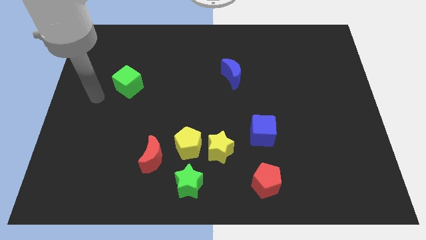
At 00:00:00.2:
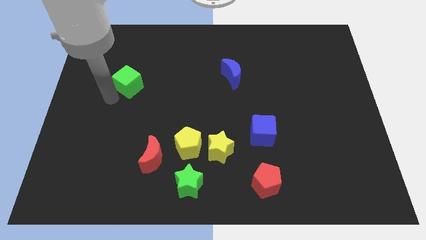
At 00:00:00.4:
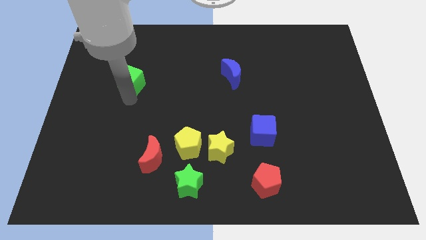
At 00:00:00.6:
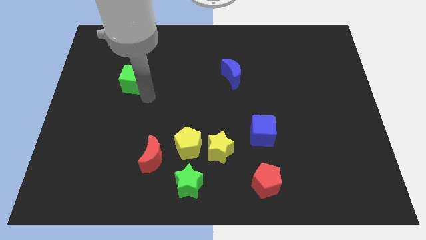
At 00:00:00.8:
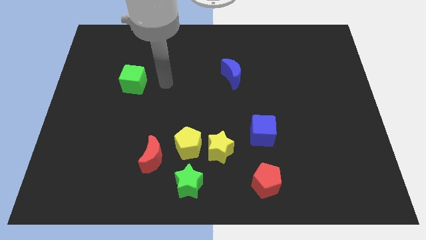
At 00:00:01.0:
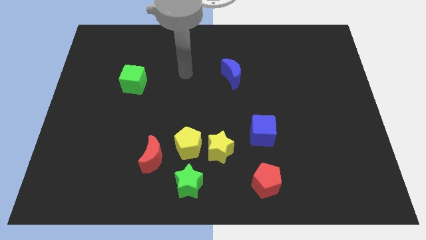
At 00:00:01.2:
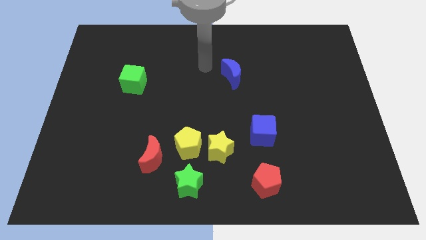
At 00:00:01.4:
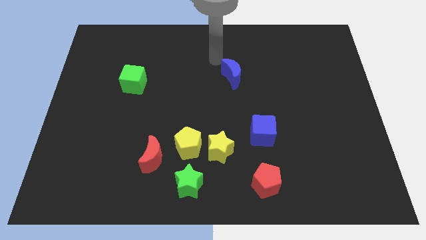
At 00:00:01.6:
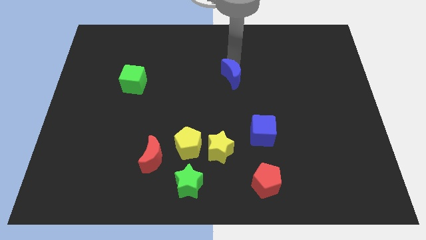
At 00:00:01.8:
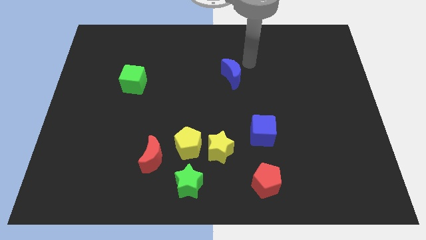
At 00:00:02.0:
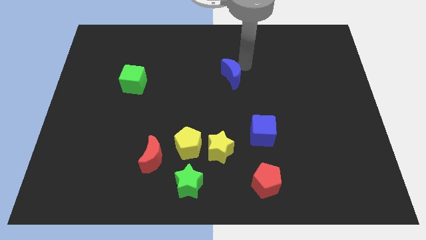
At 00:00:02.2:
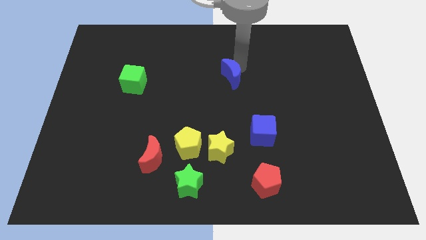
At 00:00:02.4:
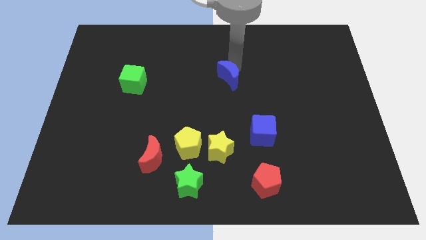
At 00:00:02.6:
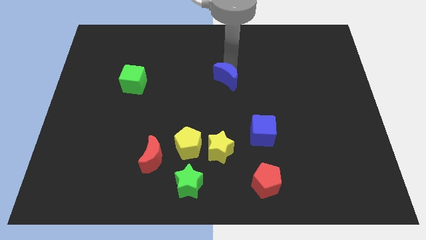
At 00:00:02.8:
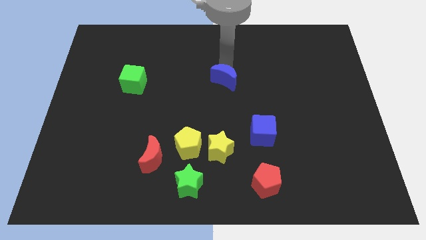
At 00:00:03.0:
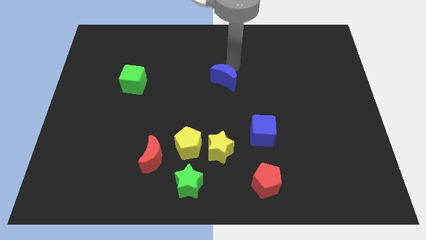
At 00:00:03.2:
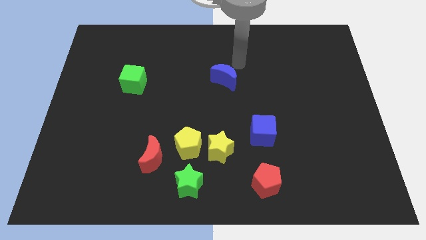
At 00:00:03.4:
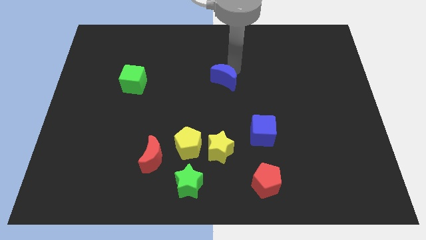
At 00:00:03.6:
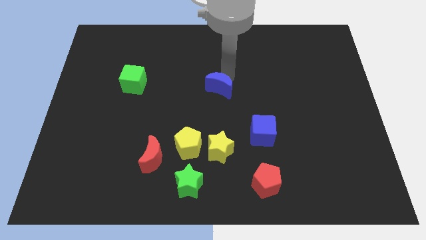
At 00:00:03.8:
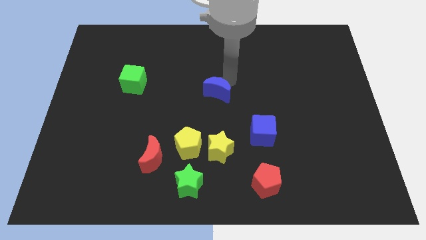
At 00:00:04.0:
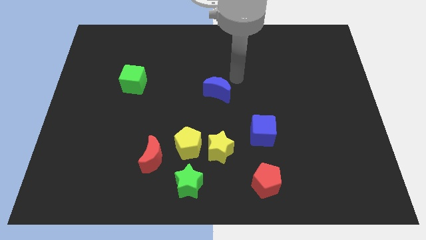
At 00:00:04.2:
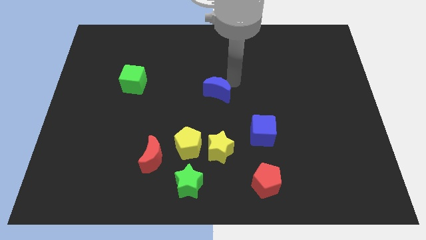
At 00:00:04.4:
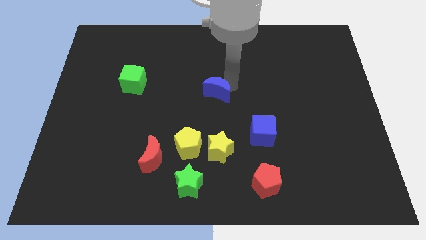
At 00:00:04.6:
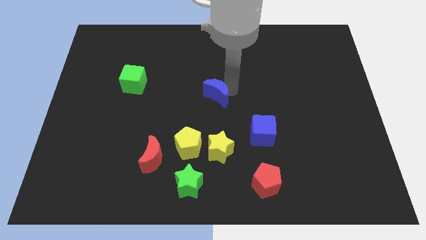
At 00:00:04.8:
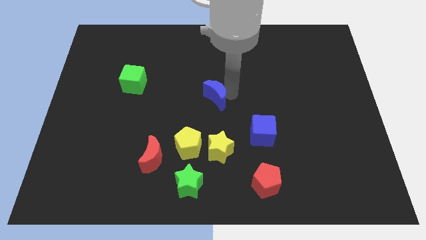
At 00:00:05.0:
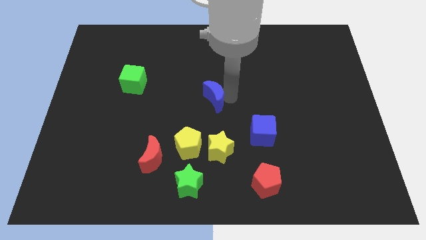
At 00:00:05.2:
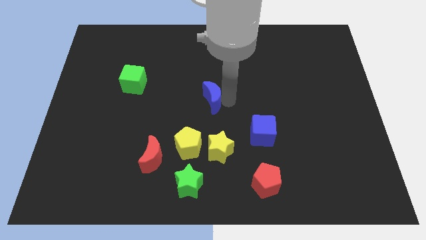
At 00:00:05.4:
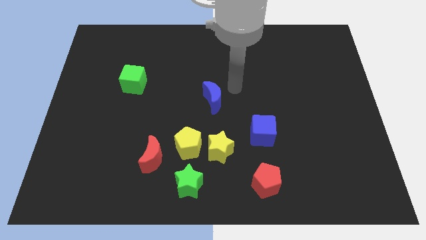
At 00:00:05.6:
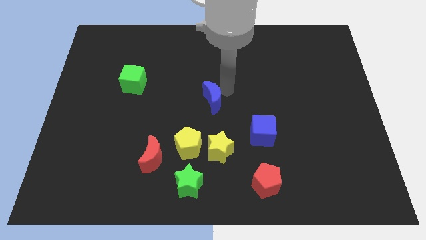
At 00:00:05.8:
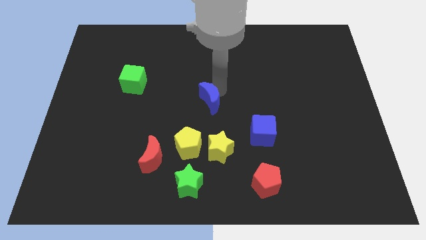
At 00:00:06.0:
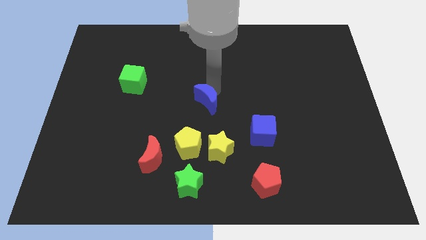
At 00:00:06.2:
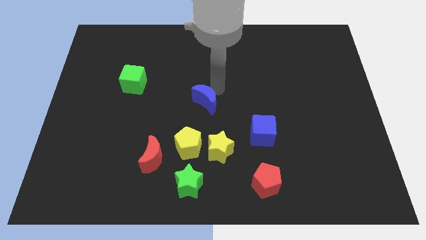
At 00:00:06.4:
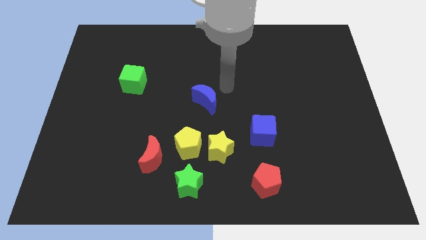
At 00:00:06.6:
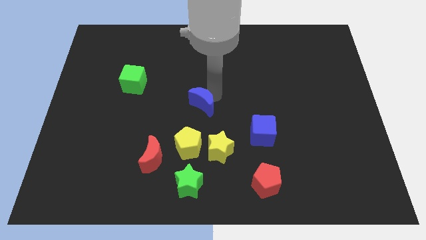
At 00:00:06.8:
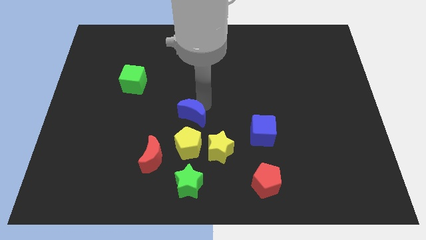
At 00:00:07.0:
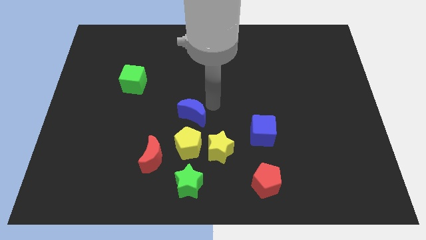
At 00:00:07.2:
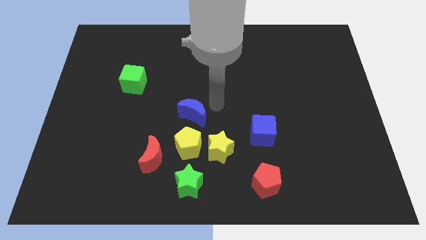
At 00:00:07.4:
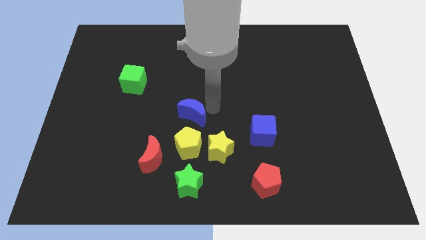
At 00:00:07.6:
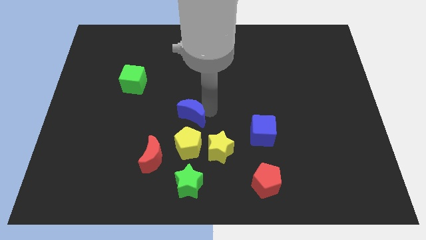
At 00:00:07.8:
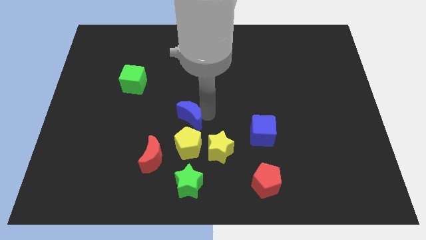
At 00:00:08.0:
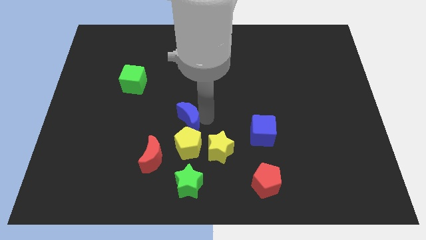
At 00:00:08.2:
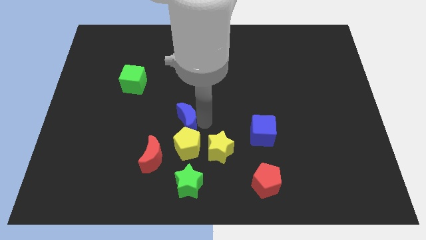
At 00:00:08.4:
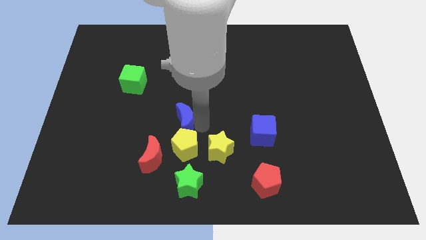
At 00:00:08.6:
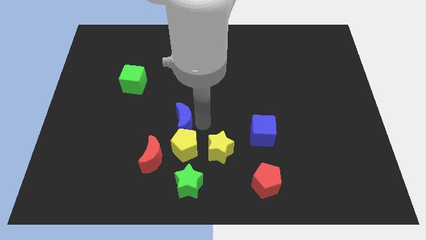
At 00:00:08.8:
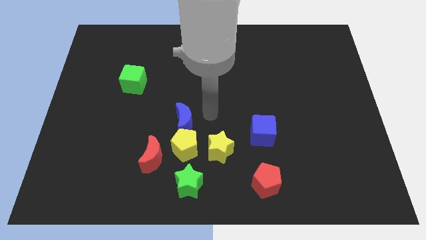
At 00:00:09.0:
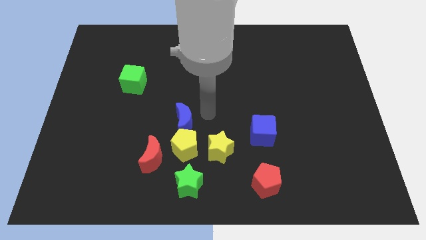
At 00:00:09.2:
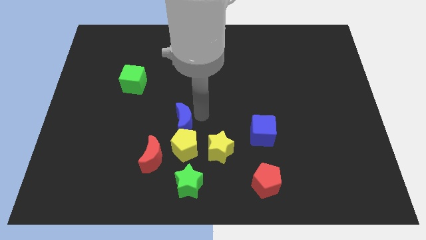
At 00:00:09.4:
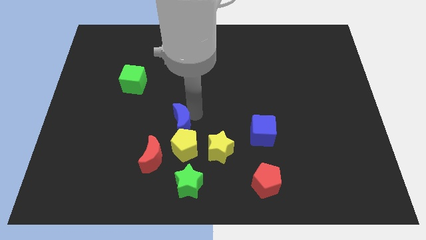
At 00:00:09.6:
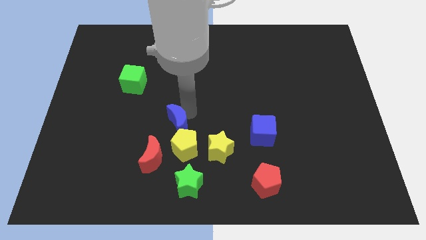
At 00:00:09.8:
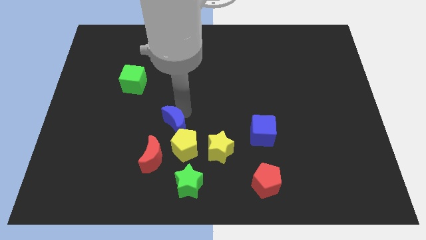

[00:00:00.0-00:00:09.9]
slide the blue moon downwards and left diagonally

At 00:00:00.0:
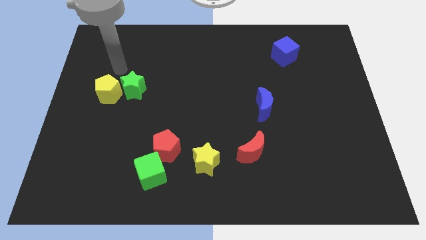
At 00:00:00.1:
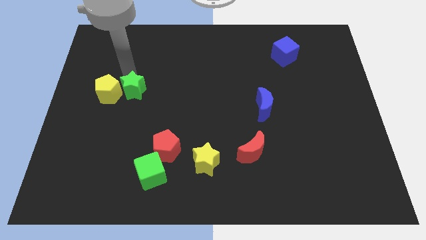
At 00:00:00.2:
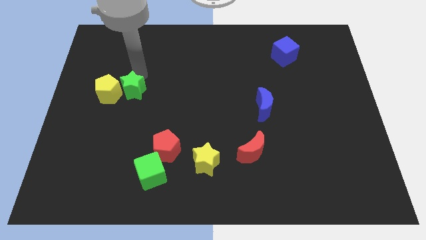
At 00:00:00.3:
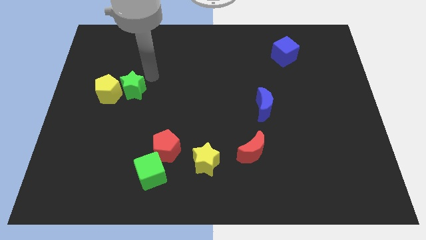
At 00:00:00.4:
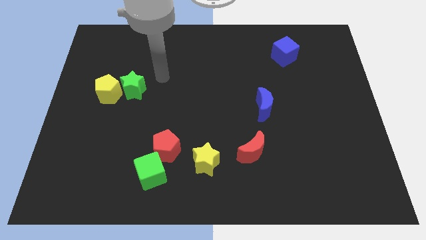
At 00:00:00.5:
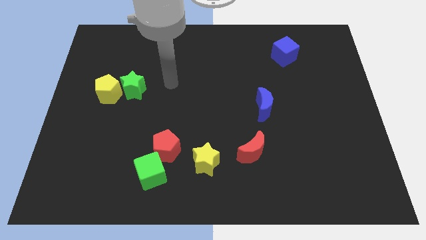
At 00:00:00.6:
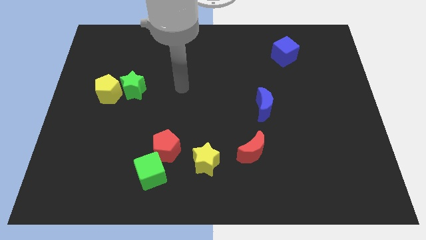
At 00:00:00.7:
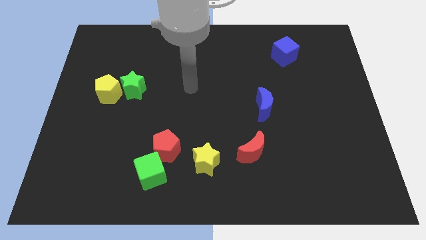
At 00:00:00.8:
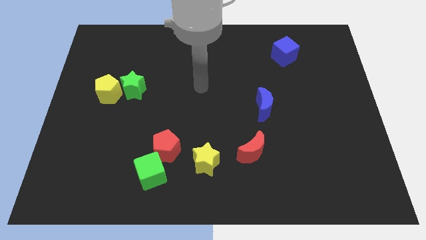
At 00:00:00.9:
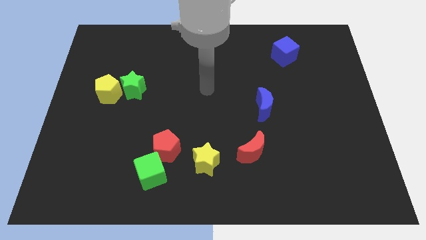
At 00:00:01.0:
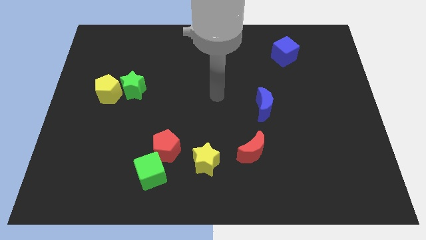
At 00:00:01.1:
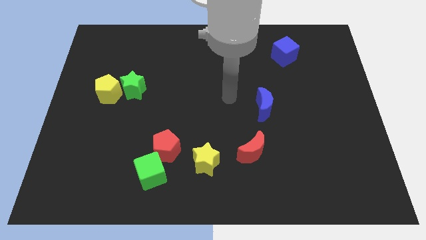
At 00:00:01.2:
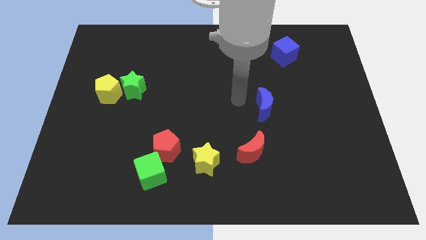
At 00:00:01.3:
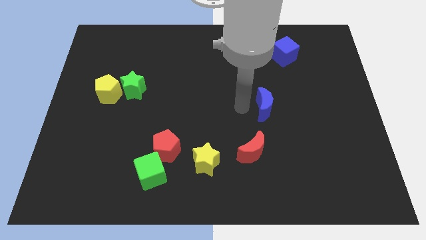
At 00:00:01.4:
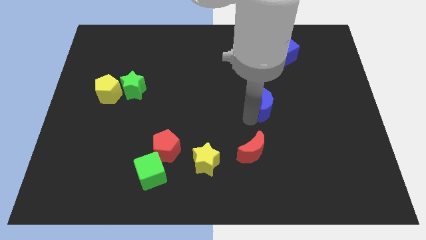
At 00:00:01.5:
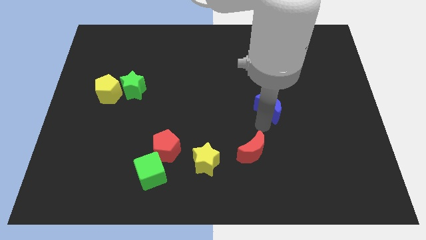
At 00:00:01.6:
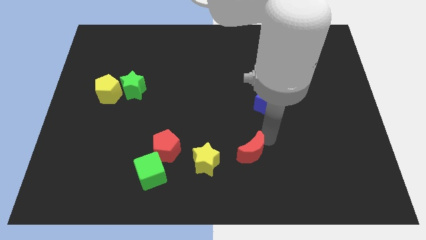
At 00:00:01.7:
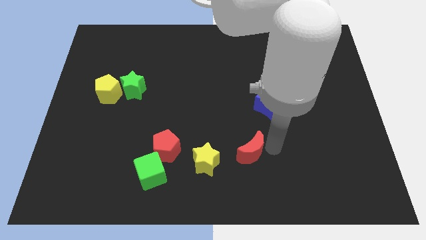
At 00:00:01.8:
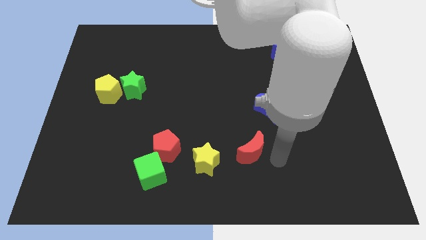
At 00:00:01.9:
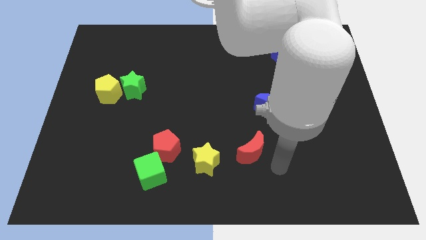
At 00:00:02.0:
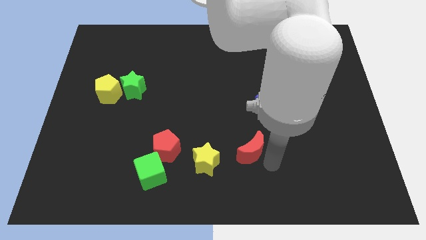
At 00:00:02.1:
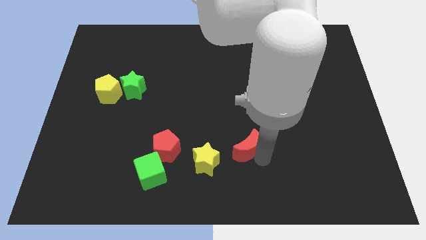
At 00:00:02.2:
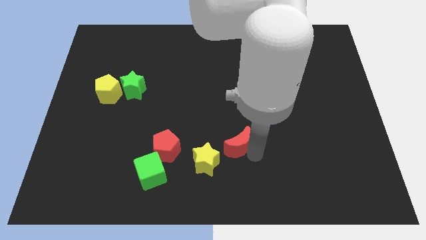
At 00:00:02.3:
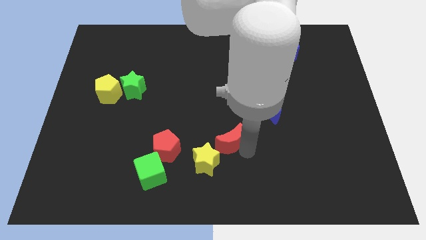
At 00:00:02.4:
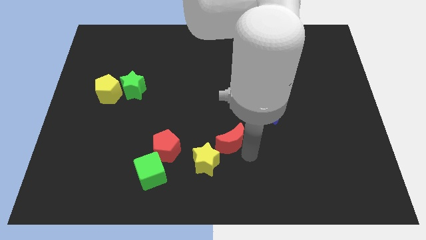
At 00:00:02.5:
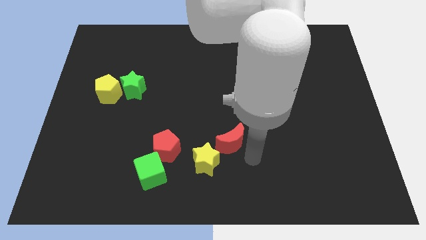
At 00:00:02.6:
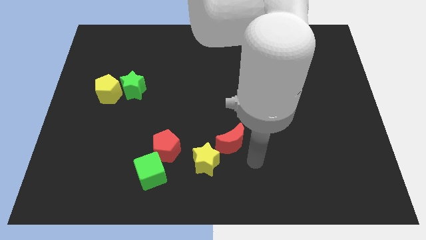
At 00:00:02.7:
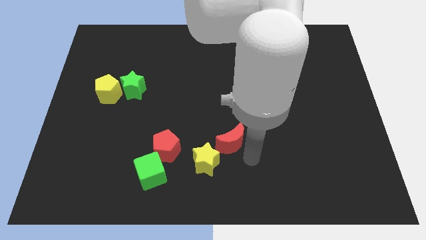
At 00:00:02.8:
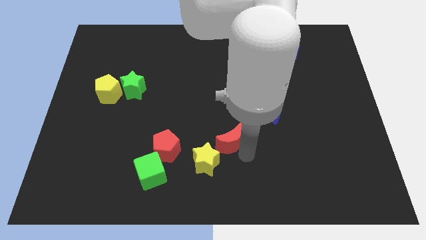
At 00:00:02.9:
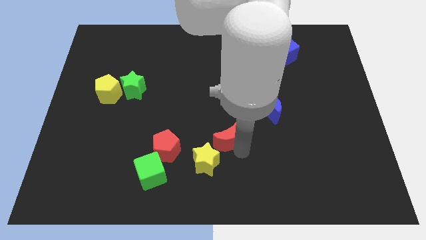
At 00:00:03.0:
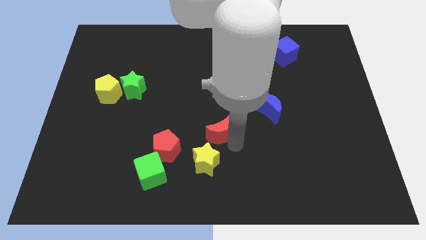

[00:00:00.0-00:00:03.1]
slightly move the red moon diagonally up and to the left

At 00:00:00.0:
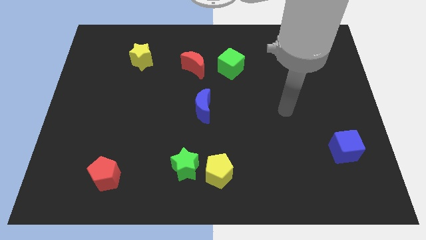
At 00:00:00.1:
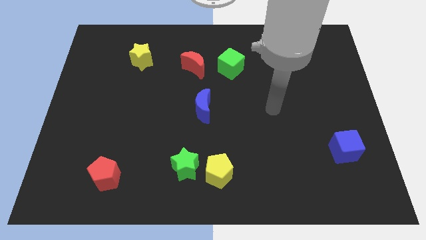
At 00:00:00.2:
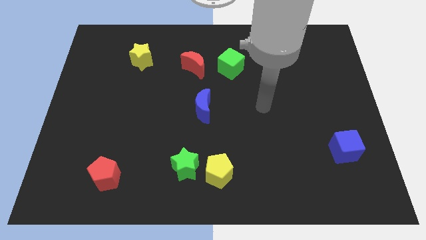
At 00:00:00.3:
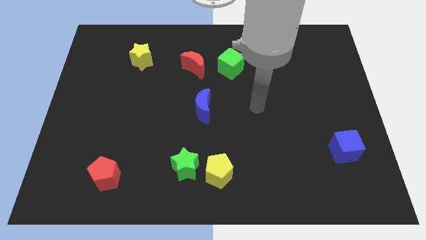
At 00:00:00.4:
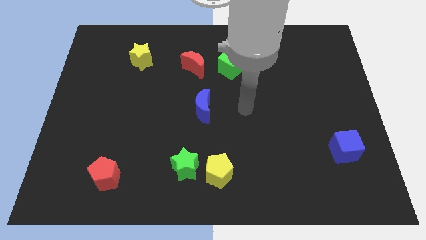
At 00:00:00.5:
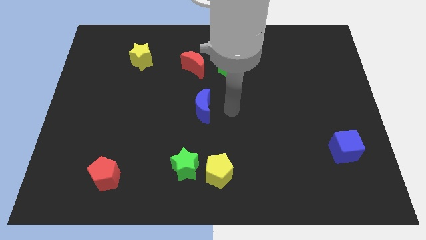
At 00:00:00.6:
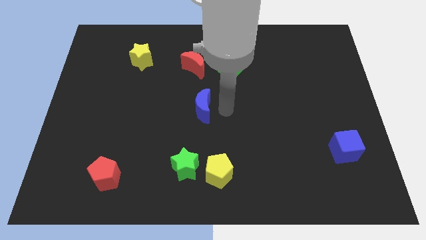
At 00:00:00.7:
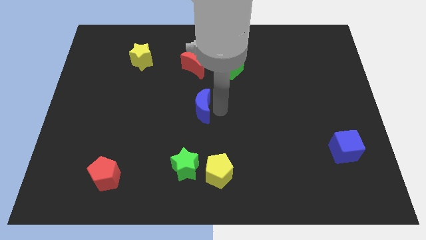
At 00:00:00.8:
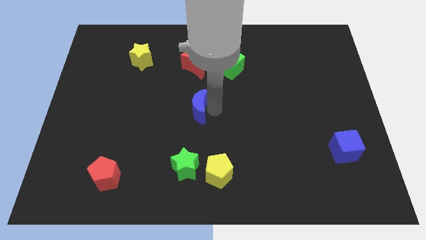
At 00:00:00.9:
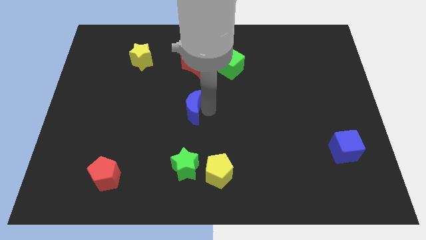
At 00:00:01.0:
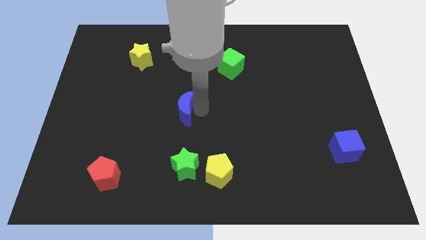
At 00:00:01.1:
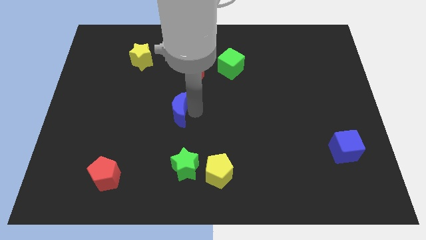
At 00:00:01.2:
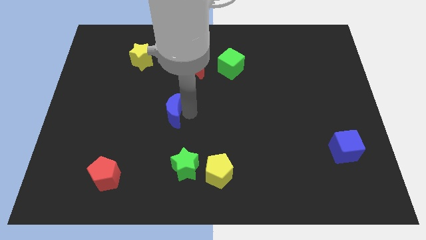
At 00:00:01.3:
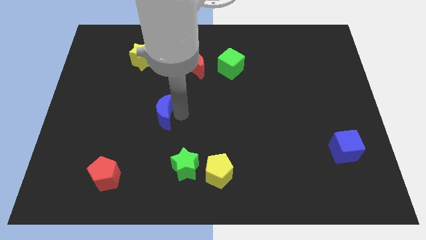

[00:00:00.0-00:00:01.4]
slightly push the blue moon left
